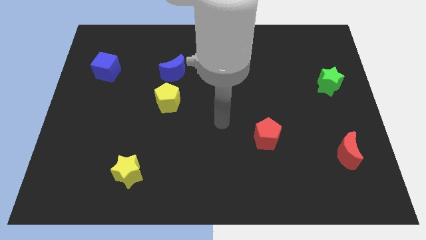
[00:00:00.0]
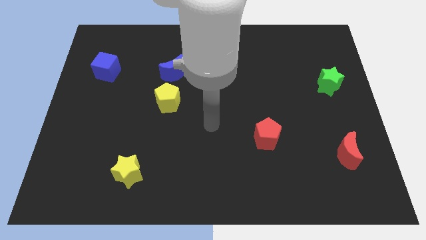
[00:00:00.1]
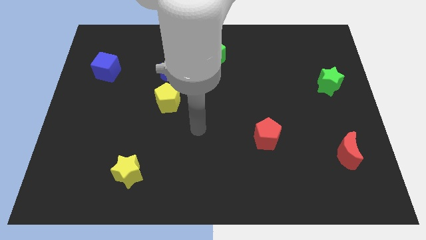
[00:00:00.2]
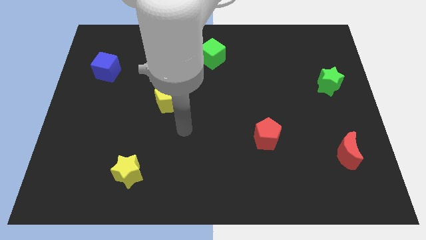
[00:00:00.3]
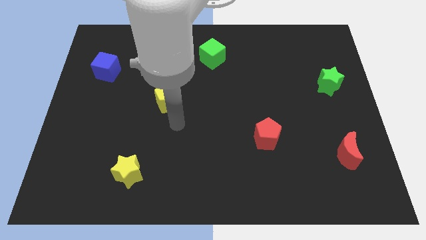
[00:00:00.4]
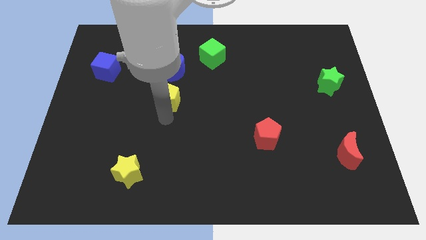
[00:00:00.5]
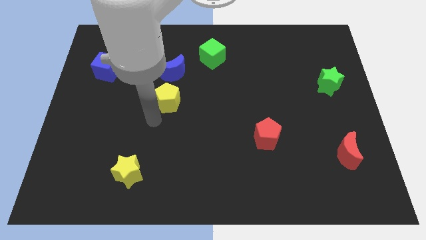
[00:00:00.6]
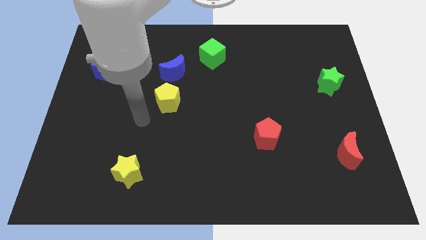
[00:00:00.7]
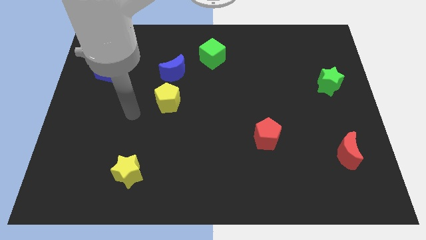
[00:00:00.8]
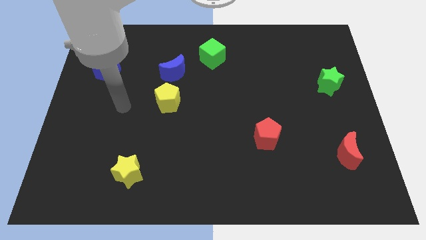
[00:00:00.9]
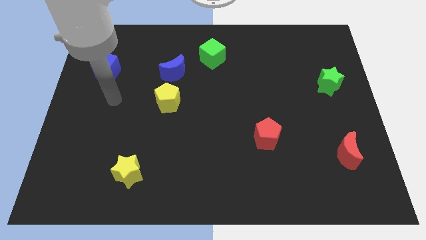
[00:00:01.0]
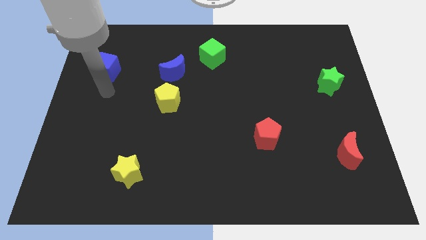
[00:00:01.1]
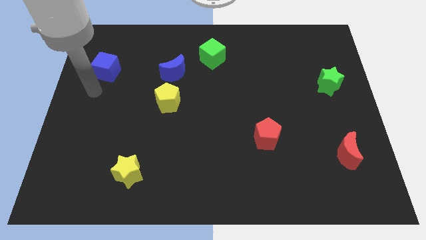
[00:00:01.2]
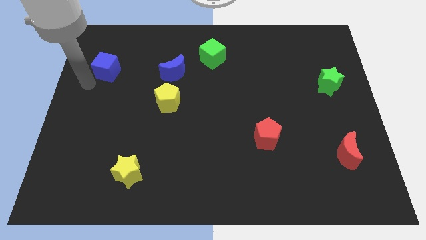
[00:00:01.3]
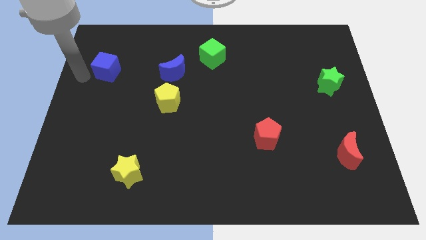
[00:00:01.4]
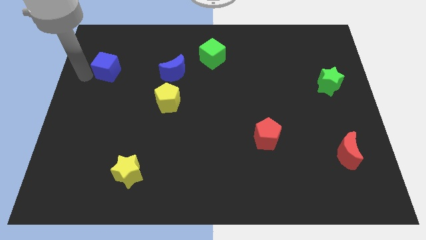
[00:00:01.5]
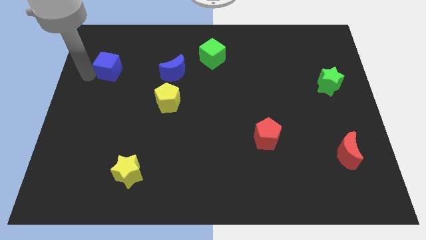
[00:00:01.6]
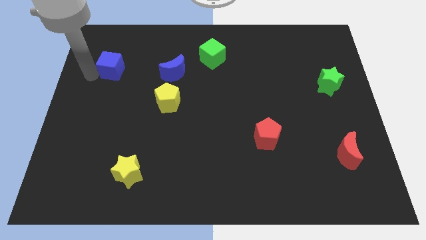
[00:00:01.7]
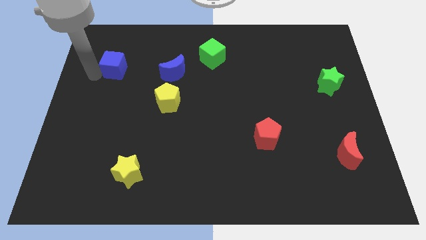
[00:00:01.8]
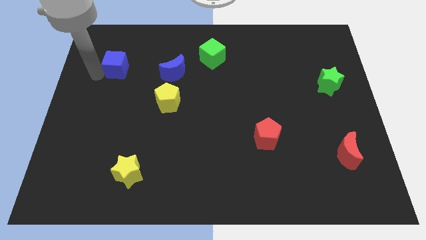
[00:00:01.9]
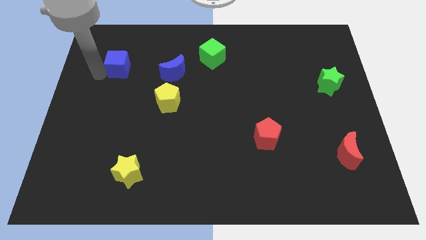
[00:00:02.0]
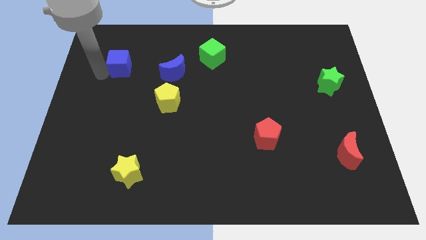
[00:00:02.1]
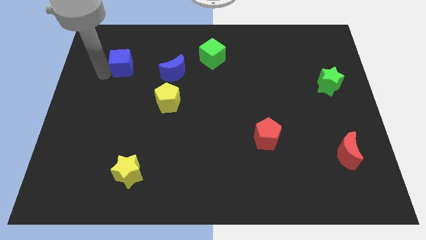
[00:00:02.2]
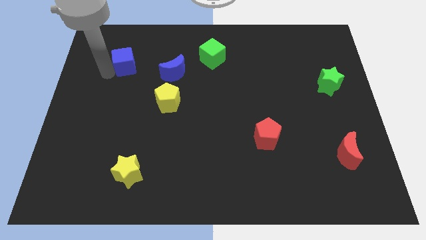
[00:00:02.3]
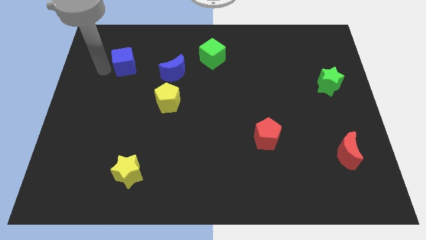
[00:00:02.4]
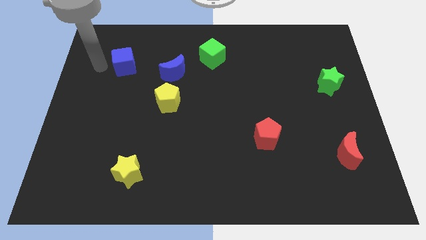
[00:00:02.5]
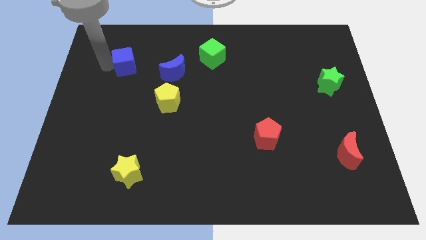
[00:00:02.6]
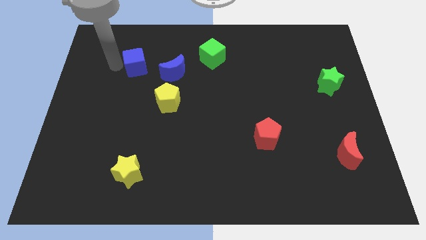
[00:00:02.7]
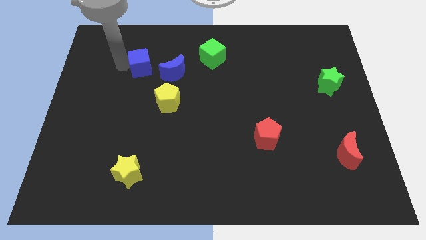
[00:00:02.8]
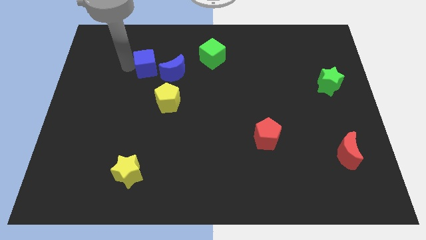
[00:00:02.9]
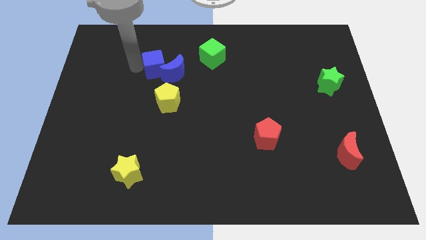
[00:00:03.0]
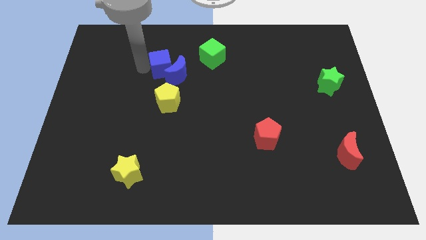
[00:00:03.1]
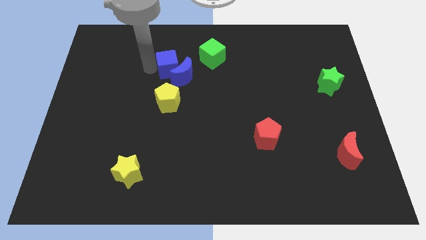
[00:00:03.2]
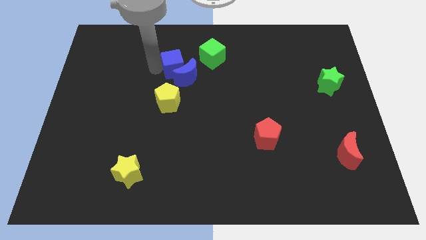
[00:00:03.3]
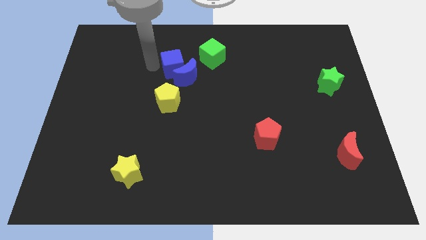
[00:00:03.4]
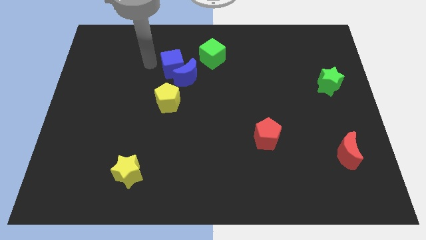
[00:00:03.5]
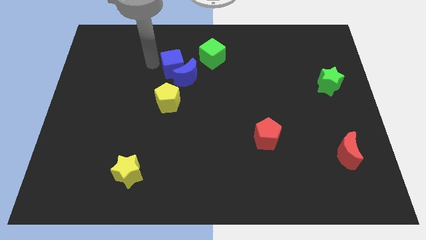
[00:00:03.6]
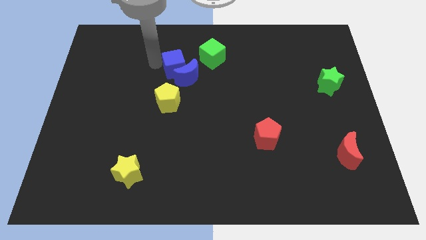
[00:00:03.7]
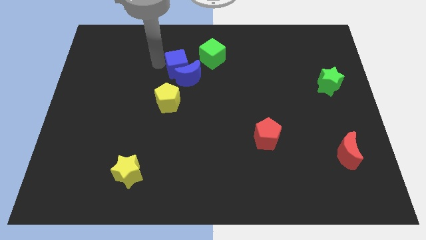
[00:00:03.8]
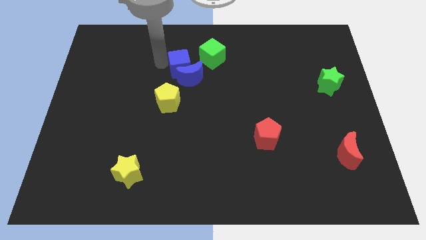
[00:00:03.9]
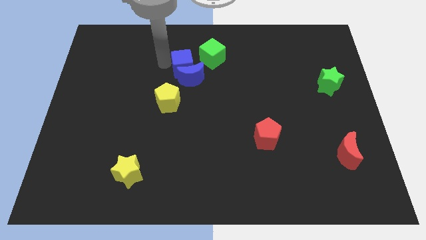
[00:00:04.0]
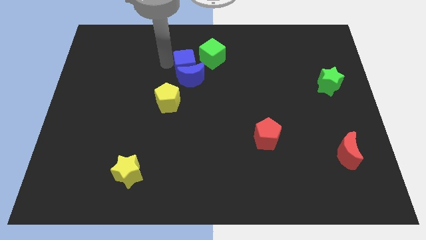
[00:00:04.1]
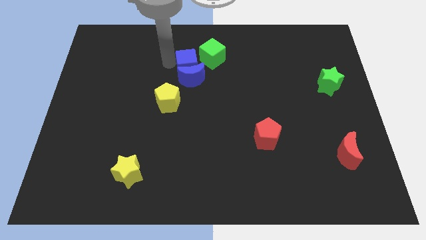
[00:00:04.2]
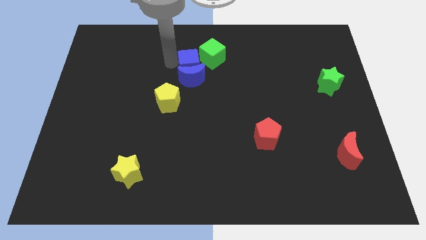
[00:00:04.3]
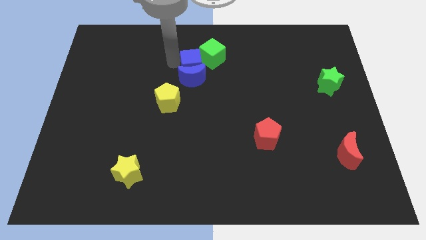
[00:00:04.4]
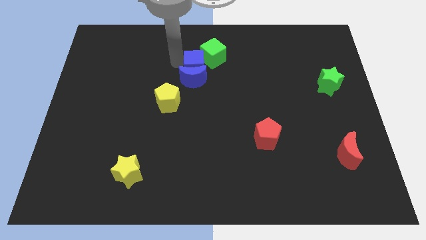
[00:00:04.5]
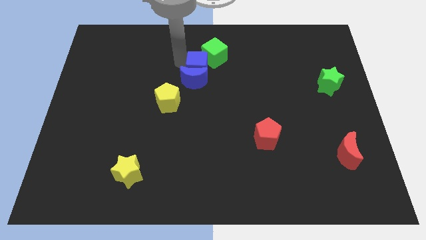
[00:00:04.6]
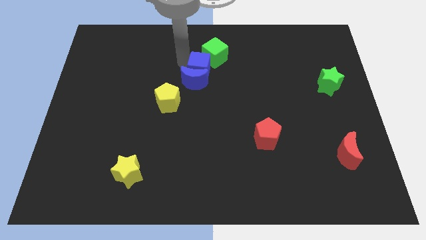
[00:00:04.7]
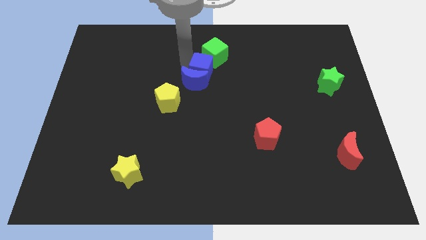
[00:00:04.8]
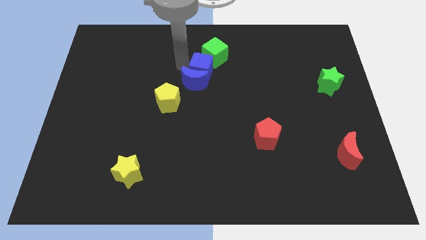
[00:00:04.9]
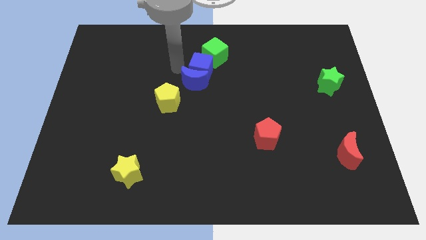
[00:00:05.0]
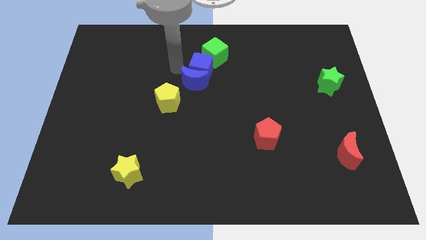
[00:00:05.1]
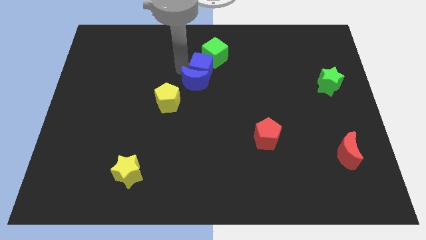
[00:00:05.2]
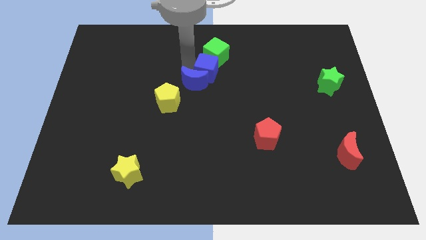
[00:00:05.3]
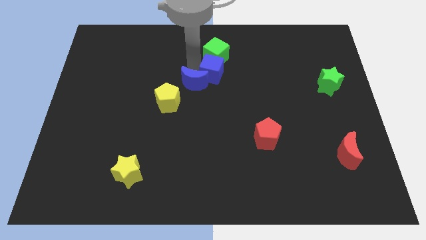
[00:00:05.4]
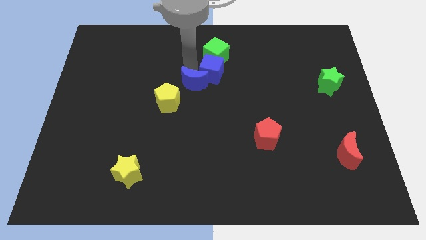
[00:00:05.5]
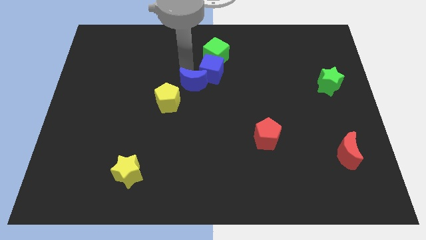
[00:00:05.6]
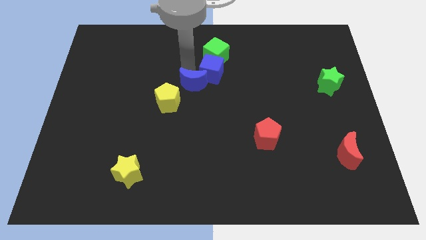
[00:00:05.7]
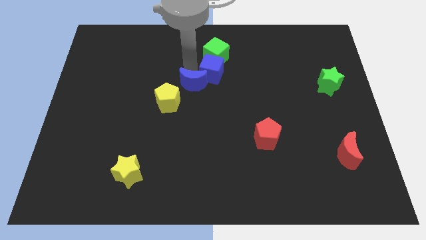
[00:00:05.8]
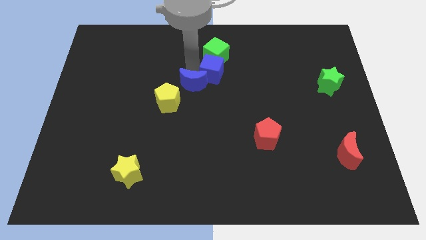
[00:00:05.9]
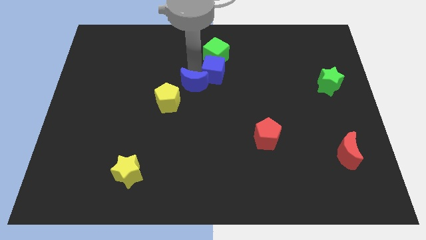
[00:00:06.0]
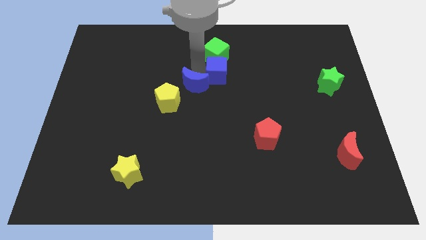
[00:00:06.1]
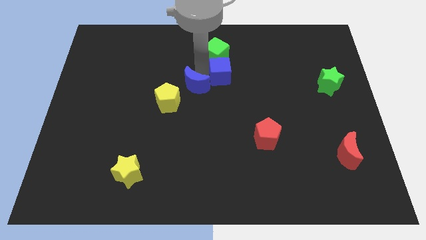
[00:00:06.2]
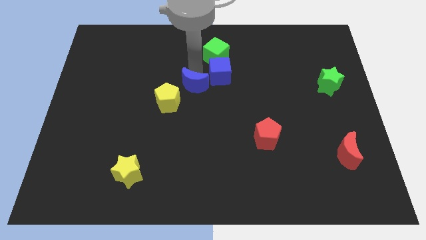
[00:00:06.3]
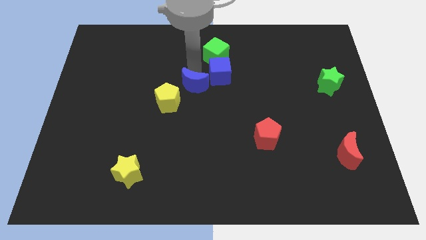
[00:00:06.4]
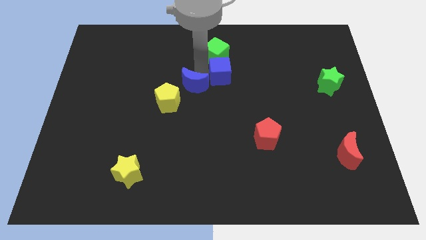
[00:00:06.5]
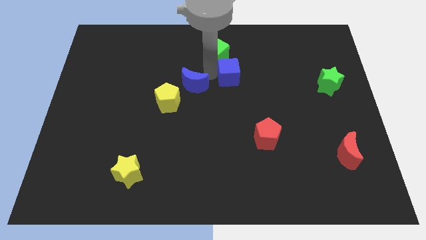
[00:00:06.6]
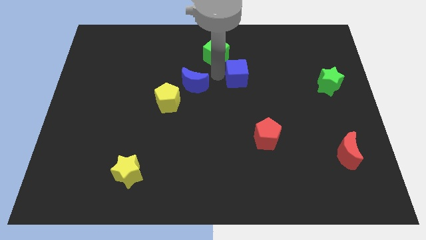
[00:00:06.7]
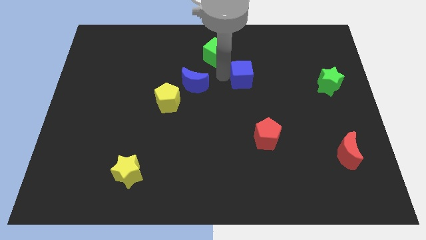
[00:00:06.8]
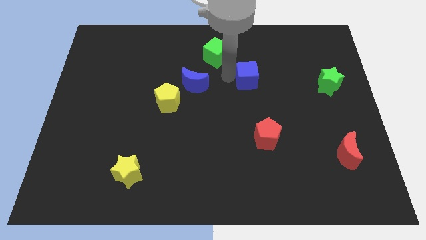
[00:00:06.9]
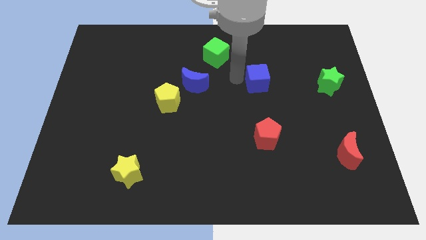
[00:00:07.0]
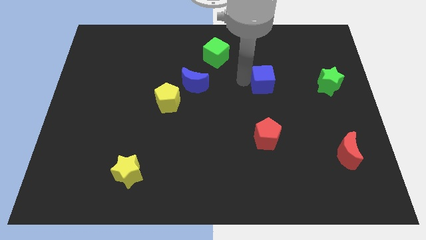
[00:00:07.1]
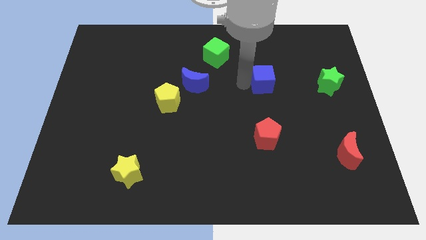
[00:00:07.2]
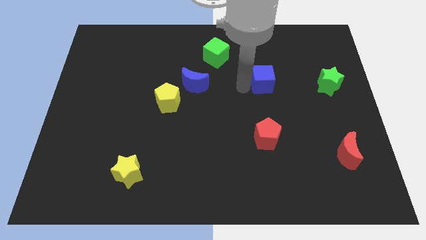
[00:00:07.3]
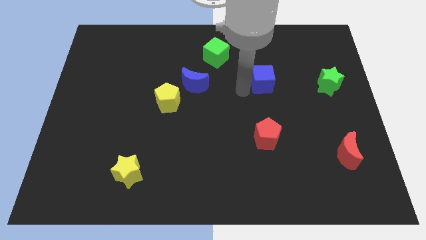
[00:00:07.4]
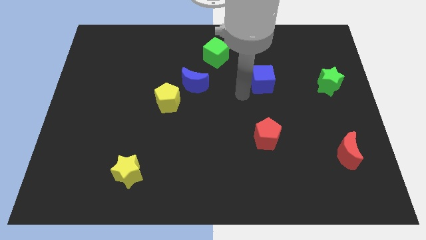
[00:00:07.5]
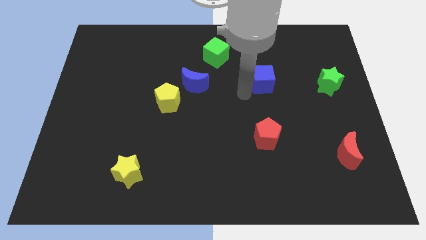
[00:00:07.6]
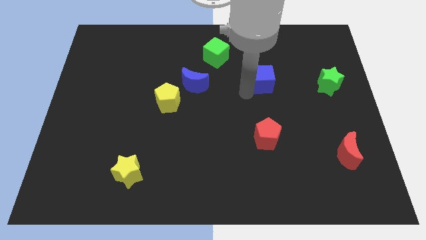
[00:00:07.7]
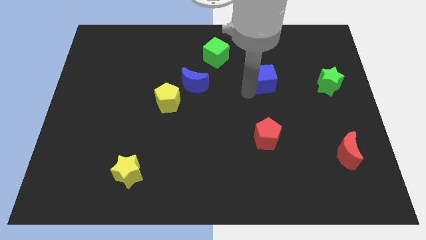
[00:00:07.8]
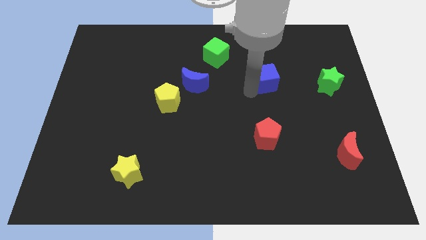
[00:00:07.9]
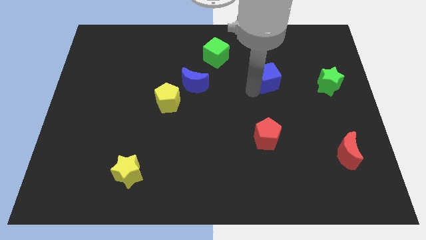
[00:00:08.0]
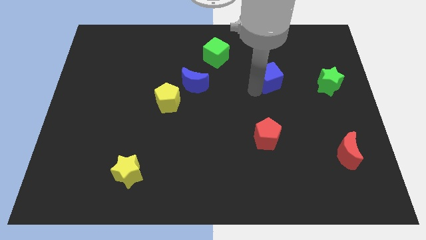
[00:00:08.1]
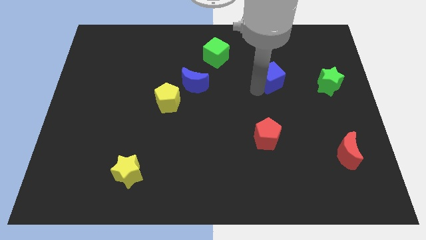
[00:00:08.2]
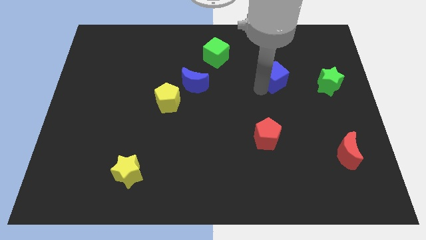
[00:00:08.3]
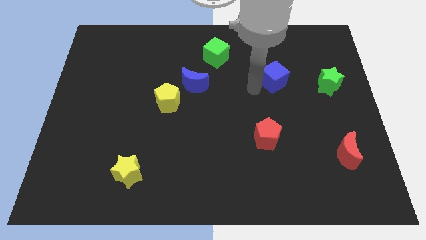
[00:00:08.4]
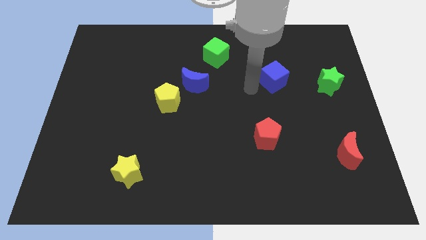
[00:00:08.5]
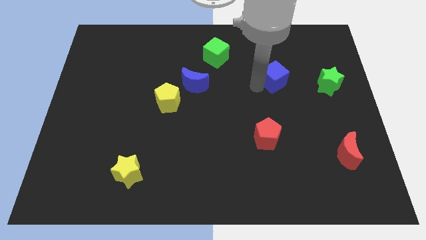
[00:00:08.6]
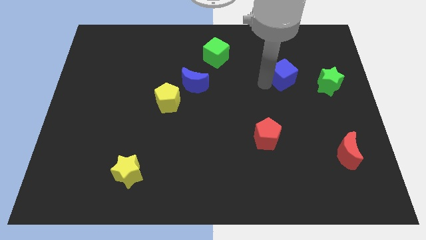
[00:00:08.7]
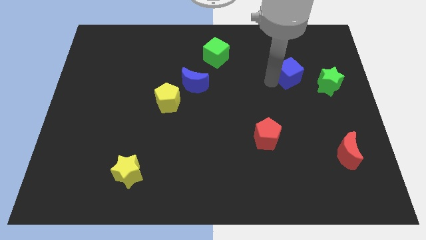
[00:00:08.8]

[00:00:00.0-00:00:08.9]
put the blue cube diagonally up and to the left of the green star
